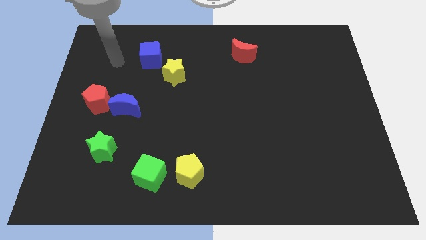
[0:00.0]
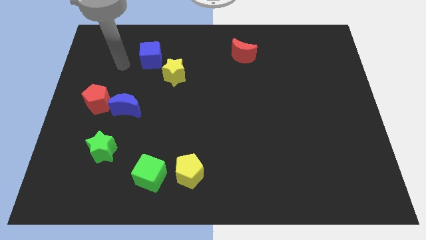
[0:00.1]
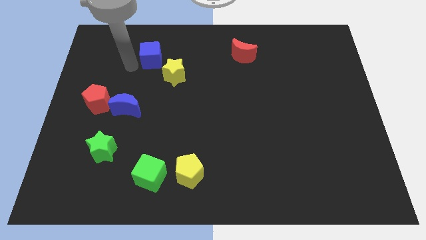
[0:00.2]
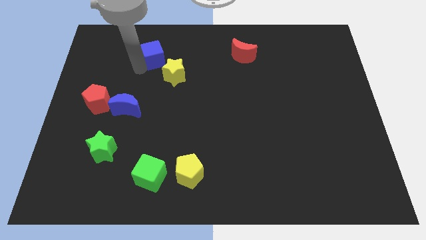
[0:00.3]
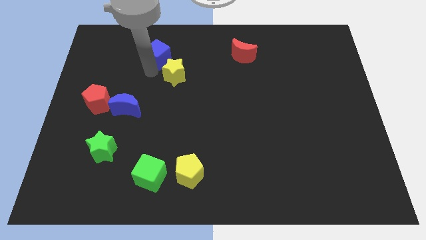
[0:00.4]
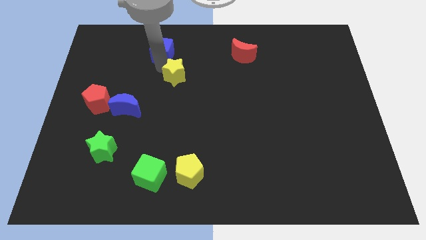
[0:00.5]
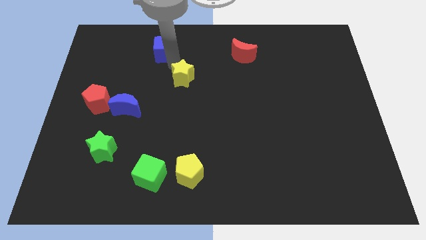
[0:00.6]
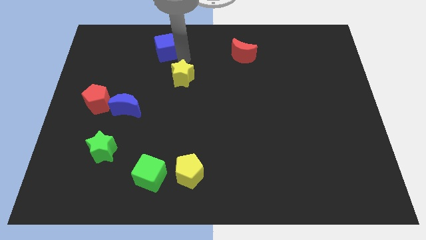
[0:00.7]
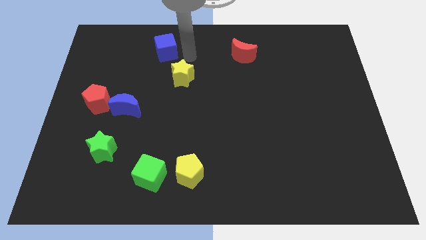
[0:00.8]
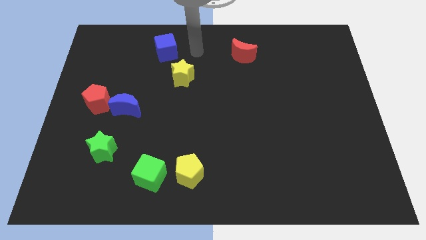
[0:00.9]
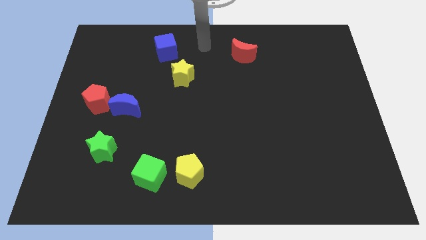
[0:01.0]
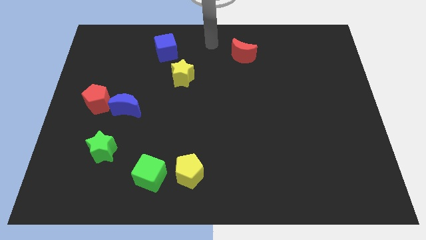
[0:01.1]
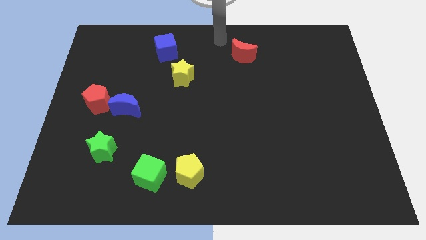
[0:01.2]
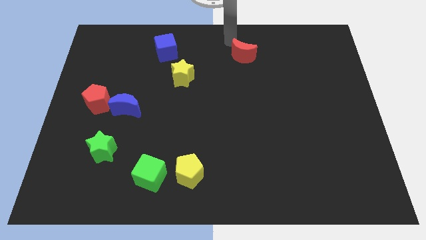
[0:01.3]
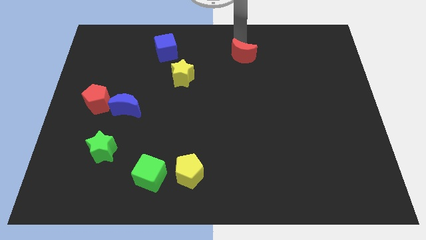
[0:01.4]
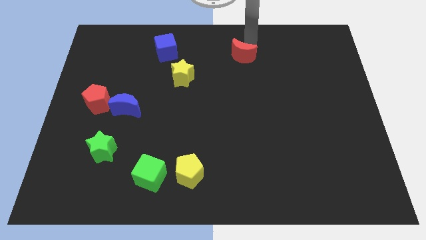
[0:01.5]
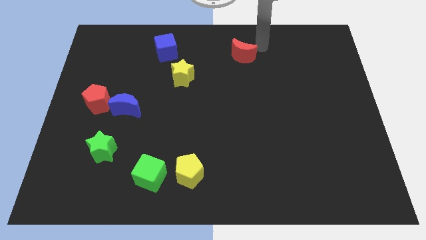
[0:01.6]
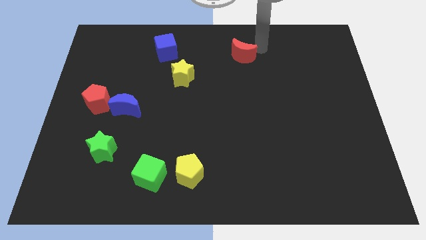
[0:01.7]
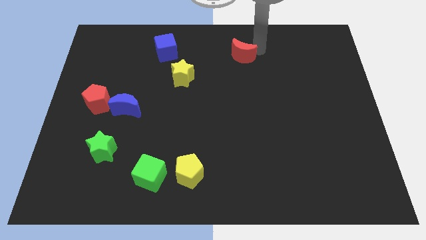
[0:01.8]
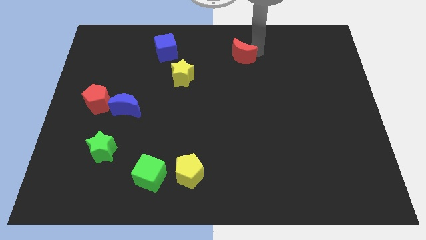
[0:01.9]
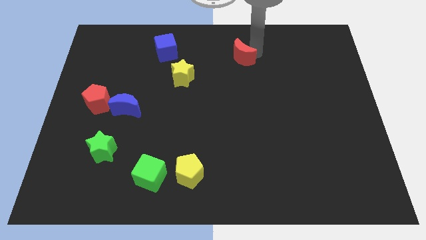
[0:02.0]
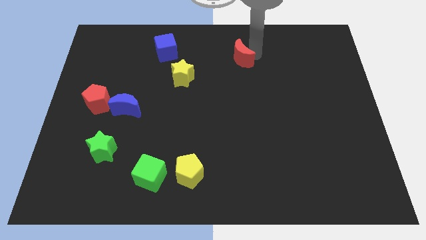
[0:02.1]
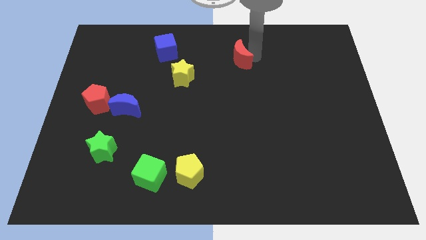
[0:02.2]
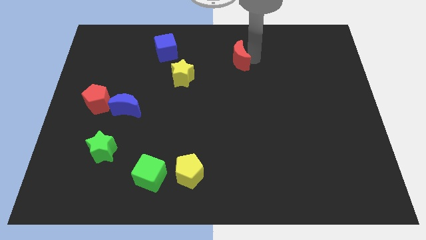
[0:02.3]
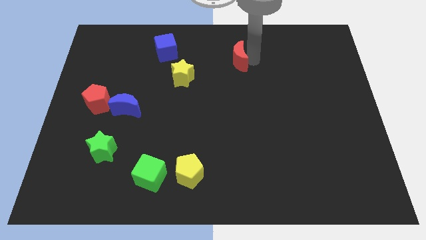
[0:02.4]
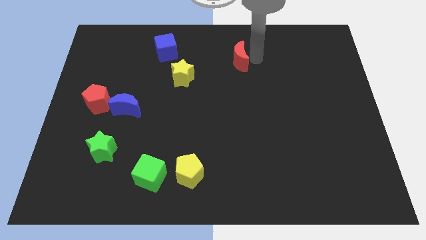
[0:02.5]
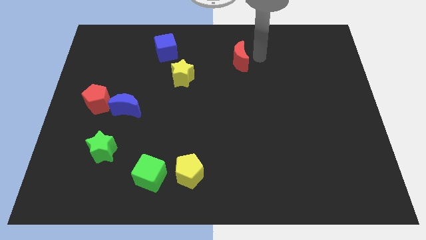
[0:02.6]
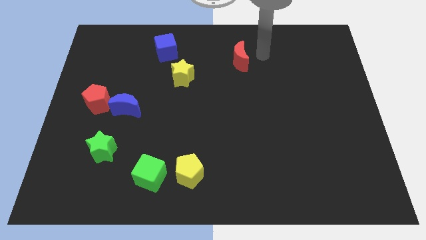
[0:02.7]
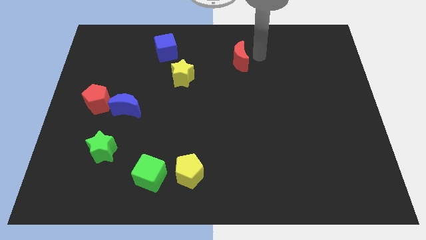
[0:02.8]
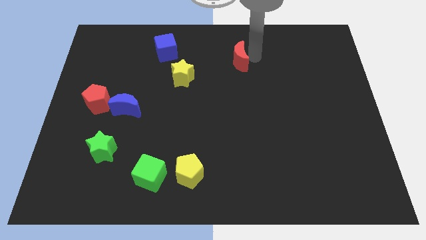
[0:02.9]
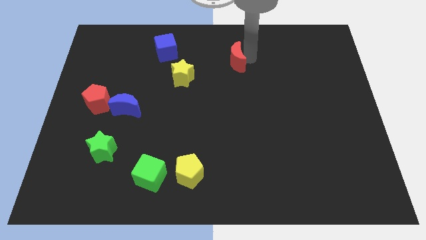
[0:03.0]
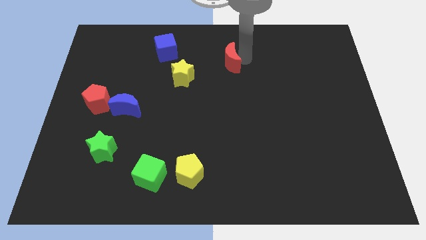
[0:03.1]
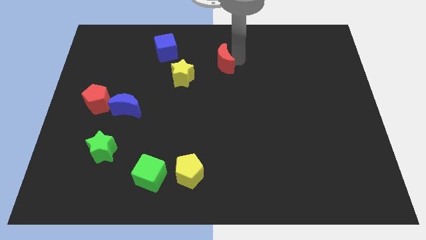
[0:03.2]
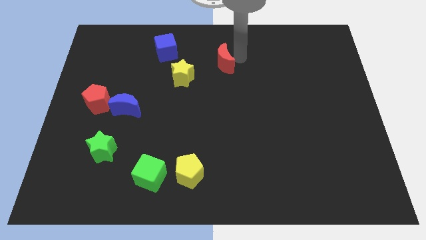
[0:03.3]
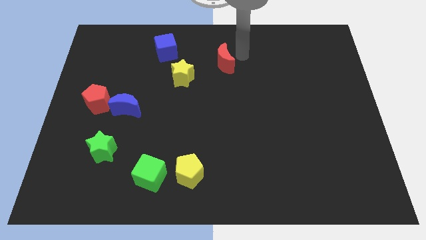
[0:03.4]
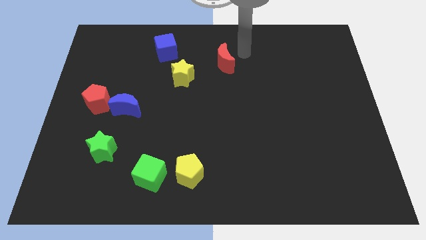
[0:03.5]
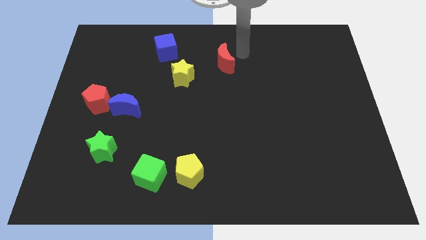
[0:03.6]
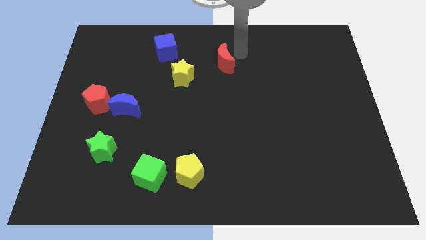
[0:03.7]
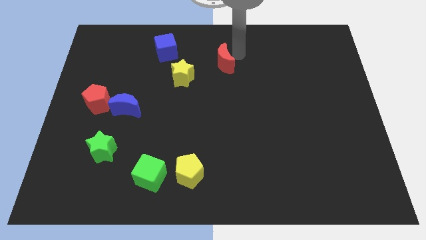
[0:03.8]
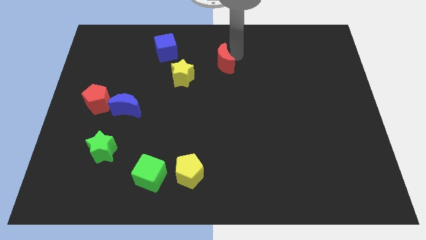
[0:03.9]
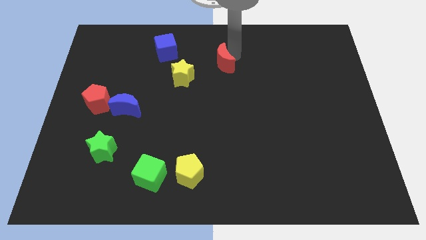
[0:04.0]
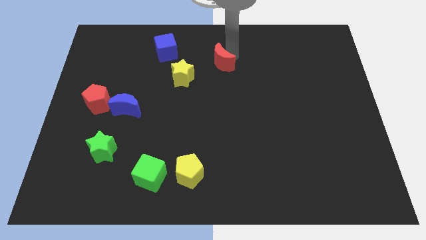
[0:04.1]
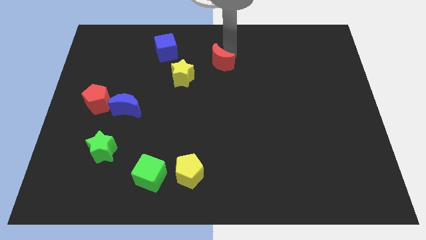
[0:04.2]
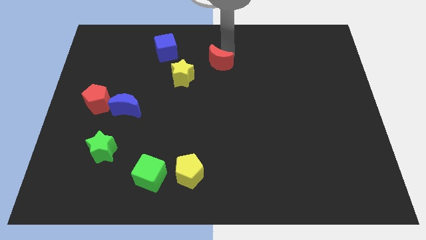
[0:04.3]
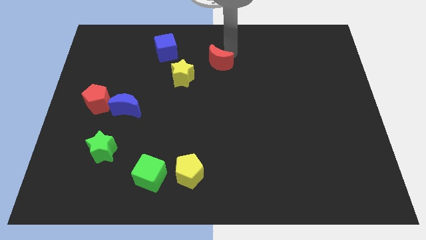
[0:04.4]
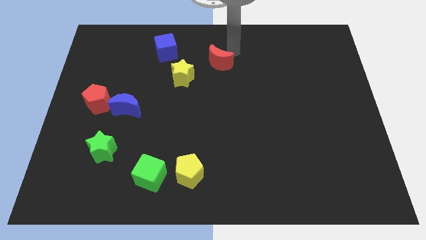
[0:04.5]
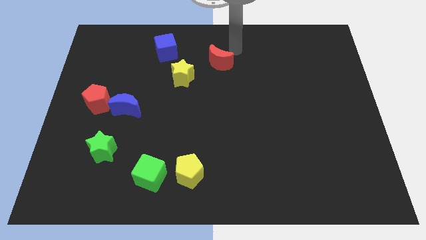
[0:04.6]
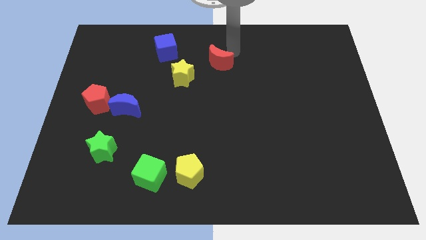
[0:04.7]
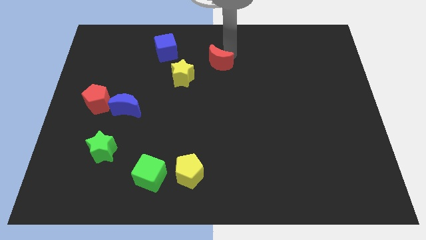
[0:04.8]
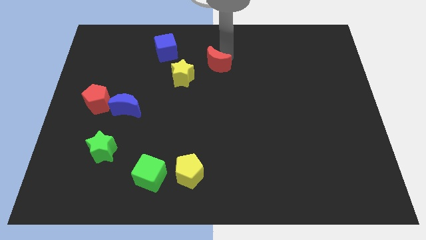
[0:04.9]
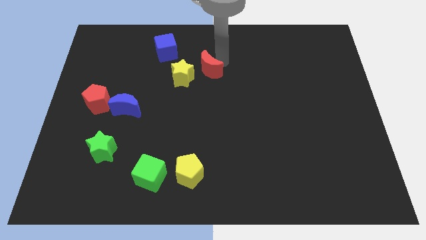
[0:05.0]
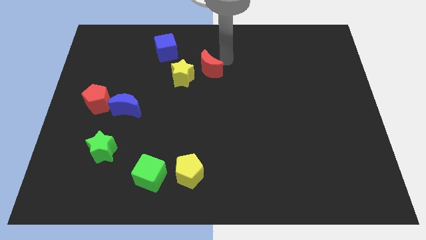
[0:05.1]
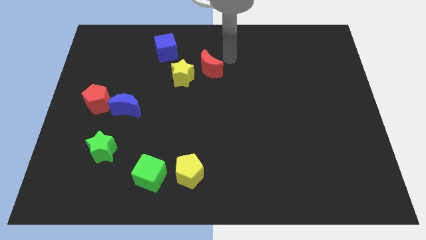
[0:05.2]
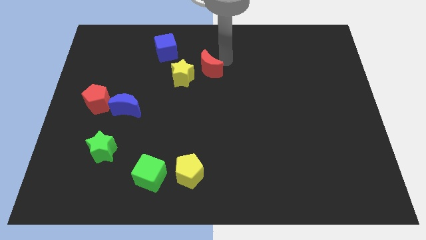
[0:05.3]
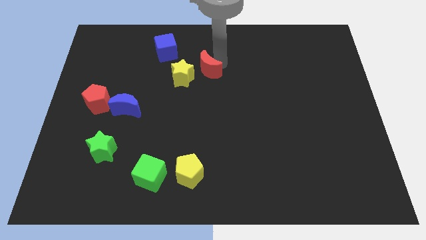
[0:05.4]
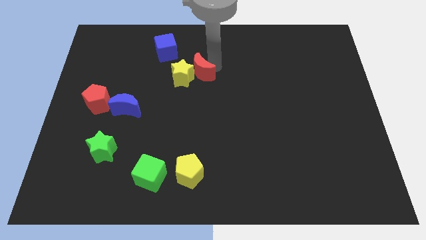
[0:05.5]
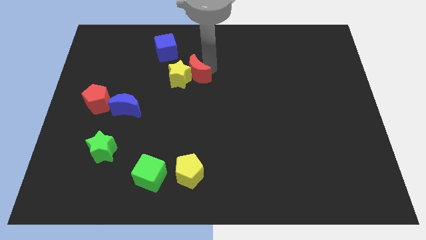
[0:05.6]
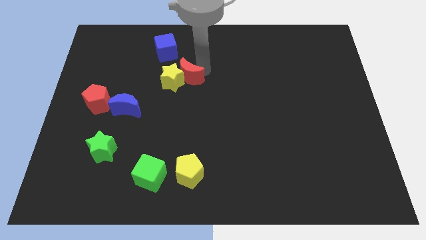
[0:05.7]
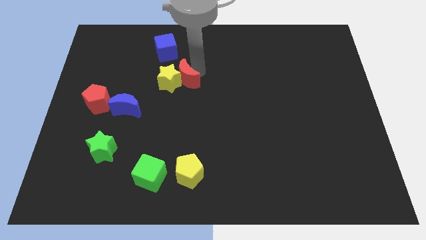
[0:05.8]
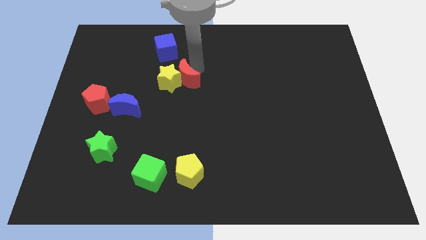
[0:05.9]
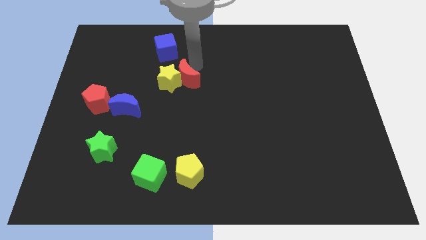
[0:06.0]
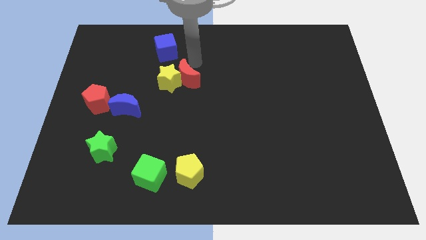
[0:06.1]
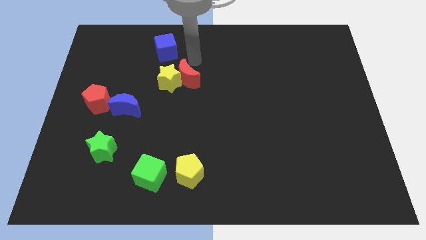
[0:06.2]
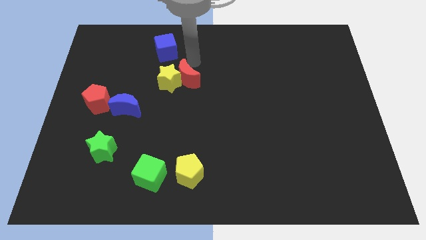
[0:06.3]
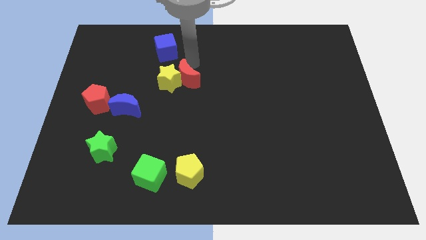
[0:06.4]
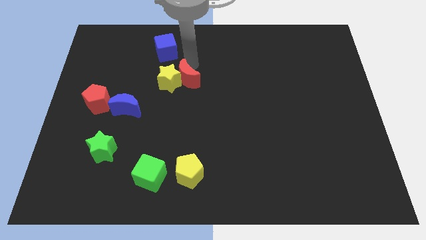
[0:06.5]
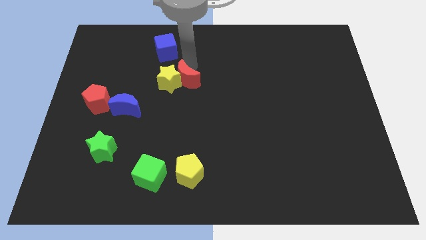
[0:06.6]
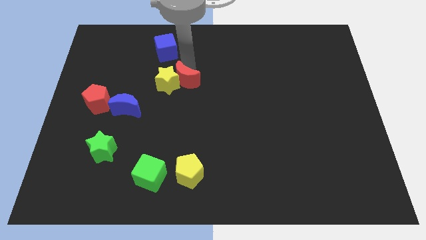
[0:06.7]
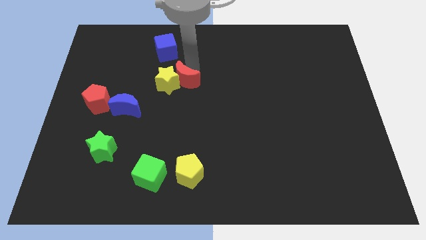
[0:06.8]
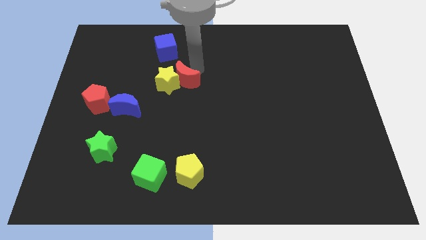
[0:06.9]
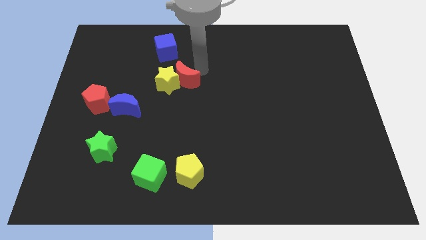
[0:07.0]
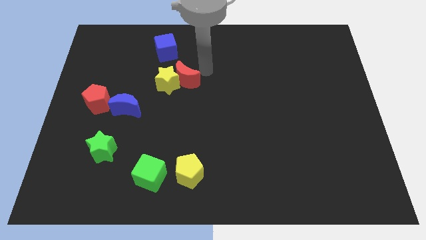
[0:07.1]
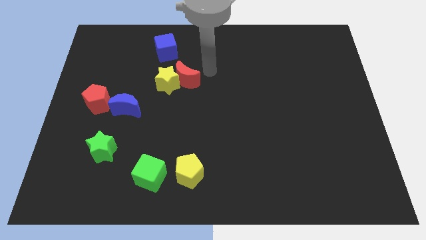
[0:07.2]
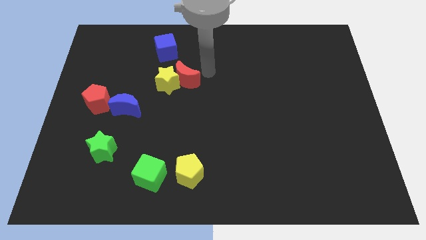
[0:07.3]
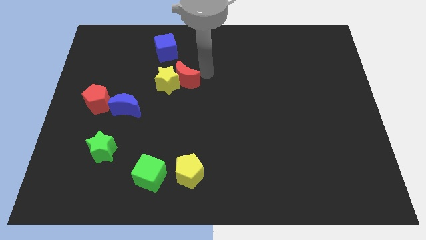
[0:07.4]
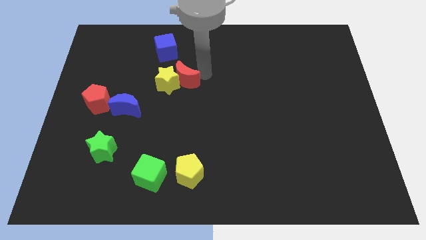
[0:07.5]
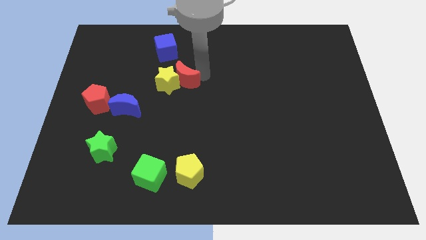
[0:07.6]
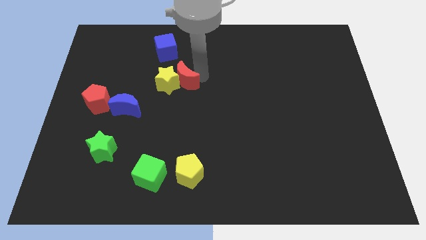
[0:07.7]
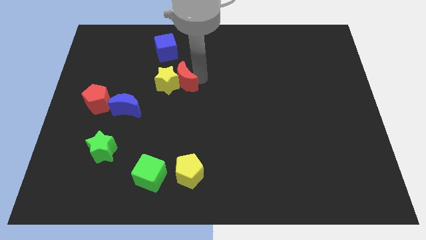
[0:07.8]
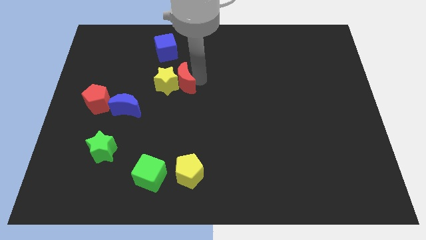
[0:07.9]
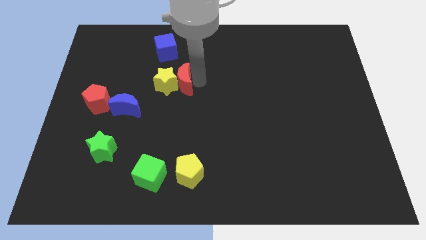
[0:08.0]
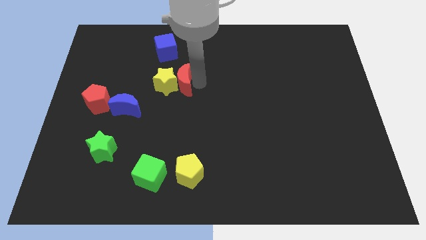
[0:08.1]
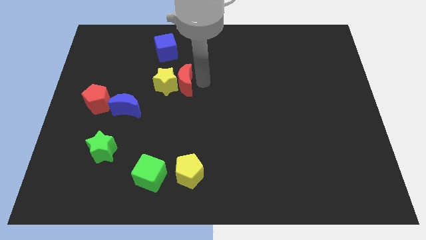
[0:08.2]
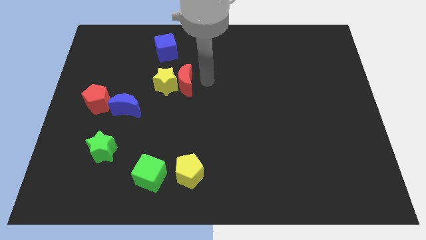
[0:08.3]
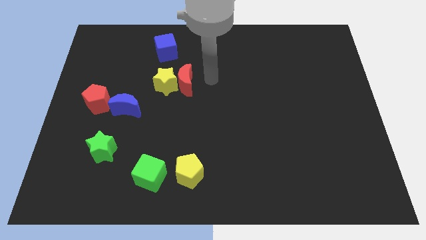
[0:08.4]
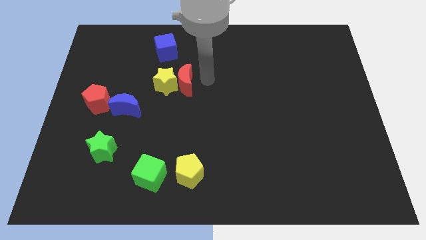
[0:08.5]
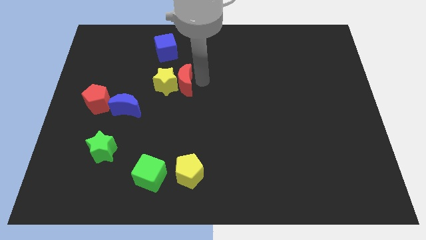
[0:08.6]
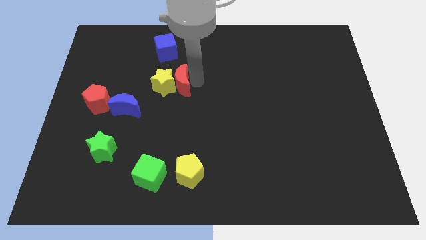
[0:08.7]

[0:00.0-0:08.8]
slide the red moon to the bottom side of the blue cube
